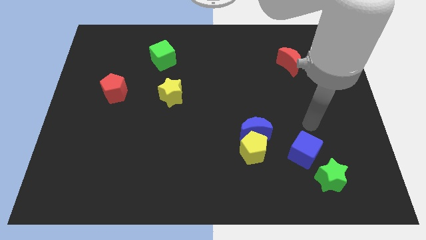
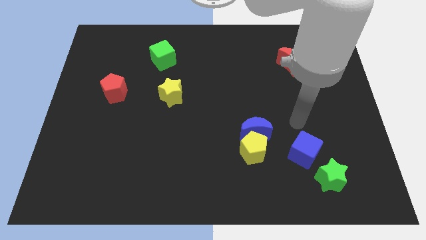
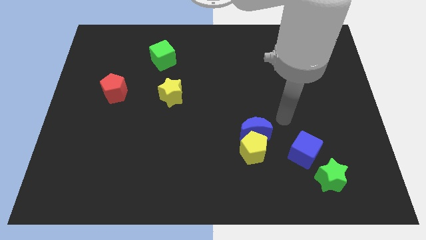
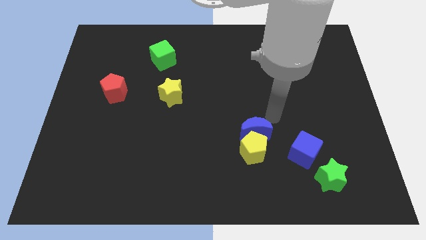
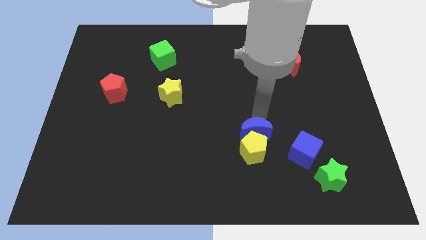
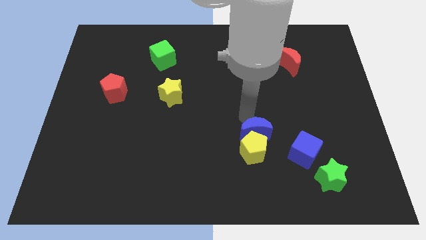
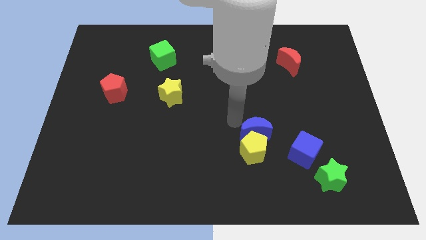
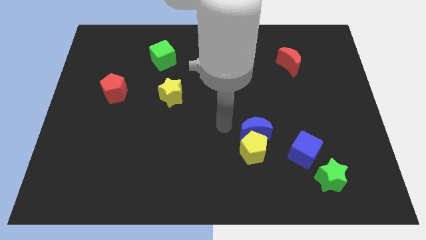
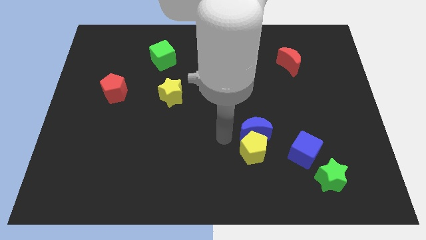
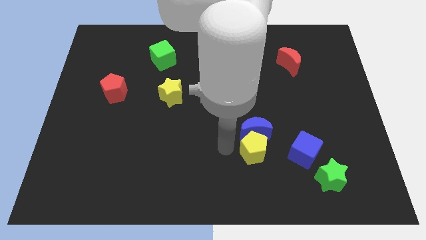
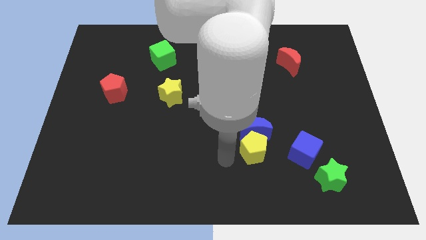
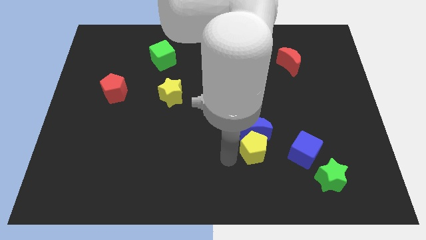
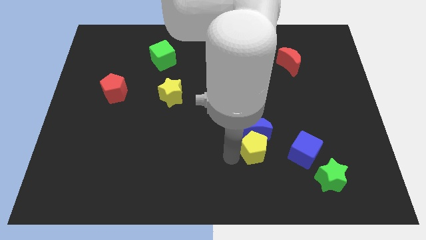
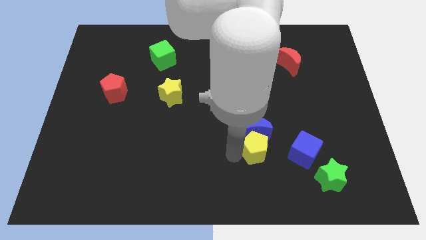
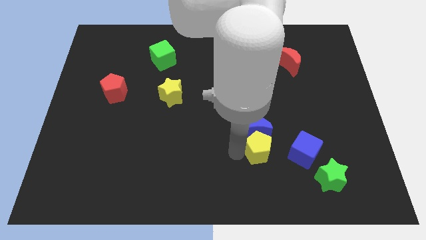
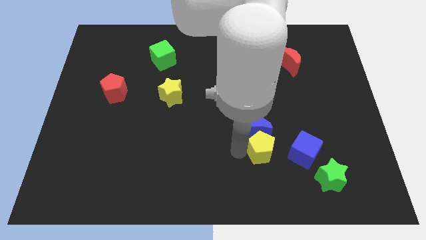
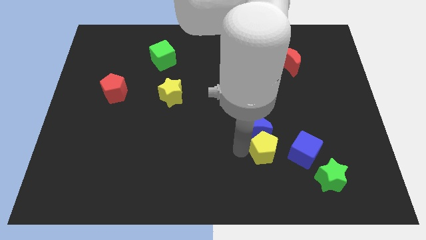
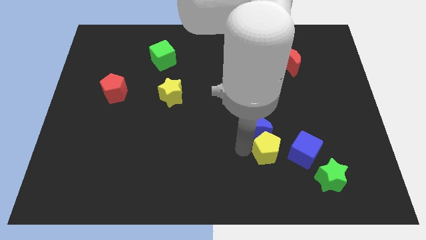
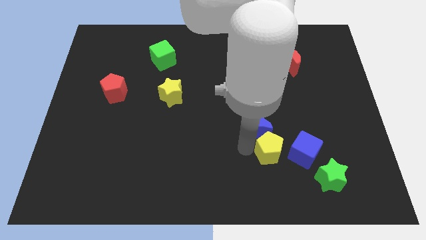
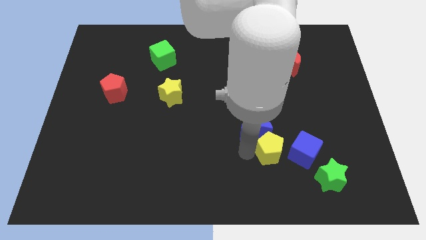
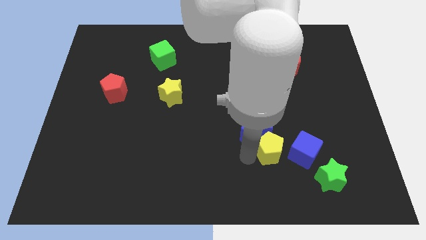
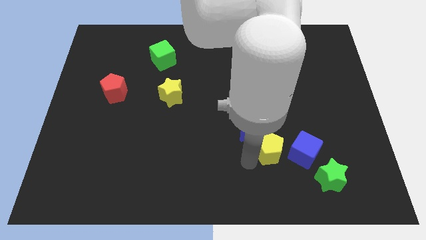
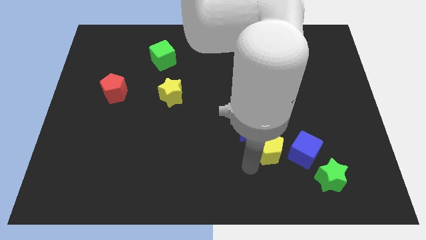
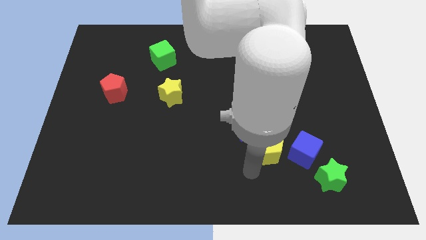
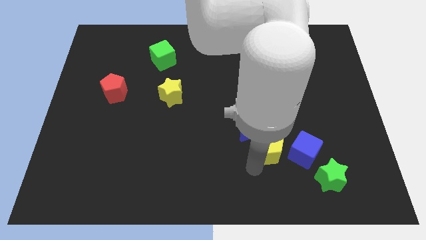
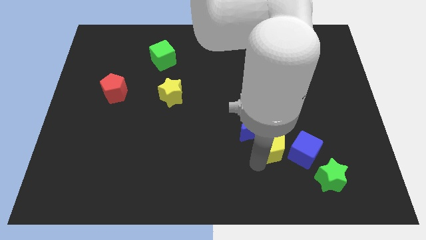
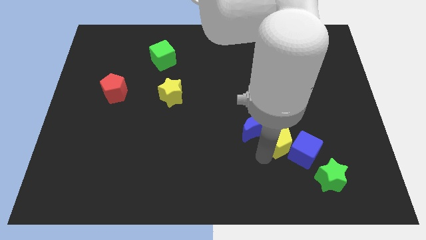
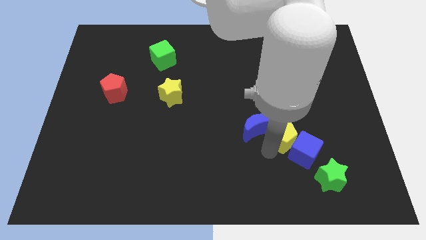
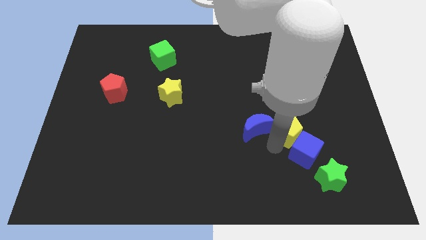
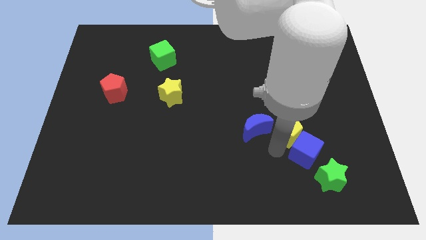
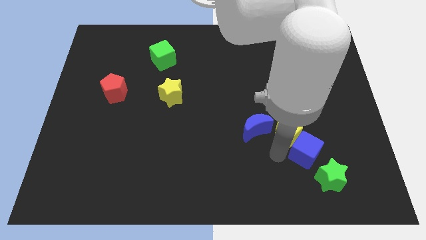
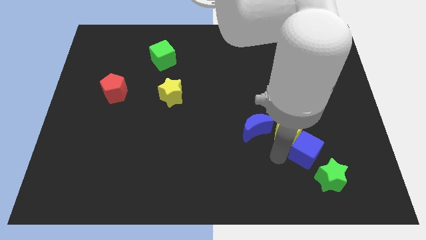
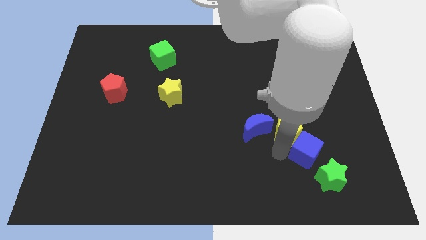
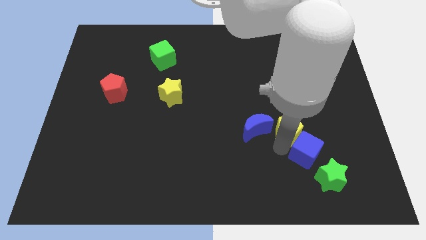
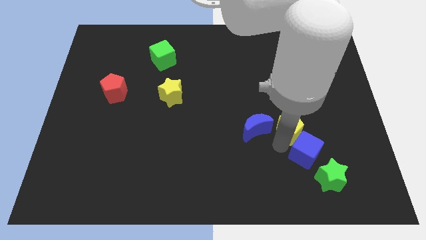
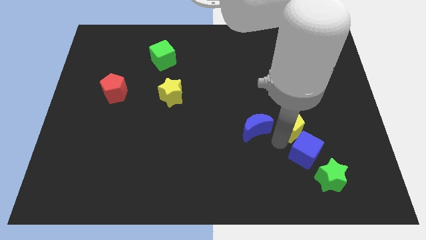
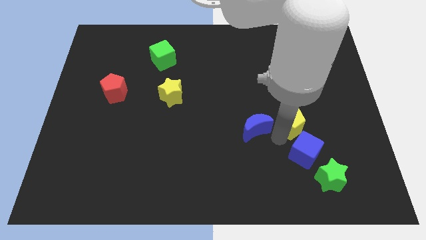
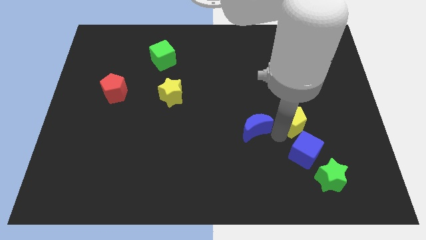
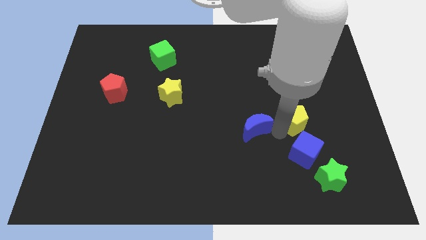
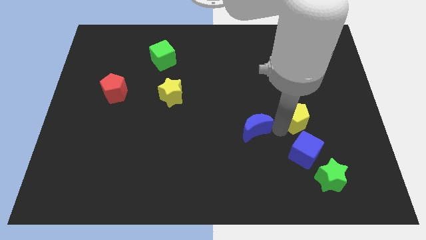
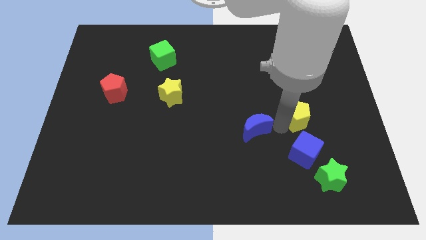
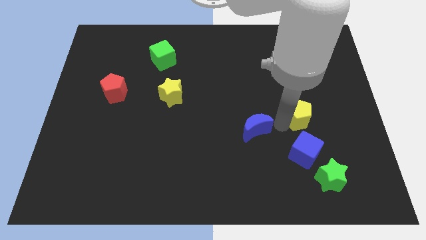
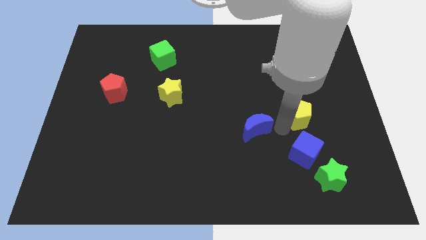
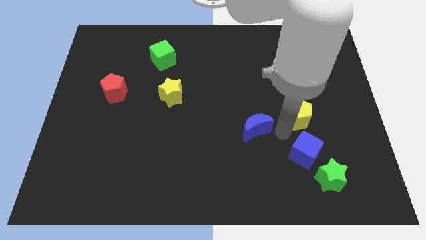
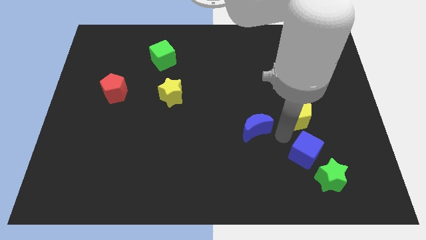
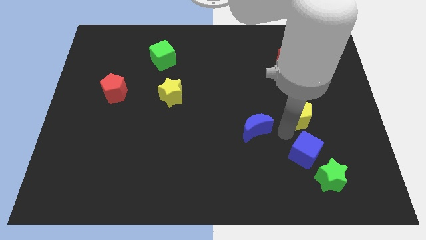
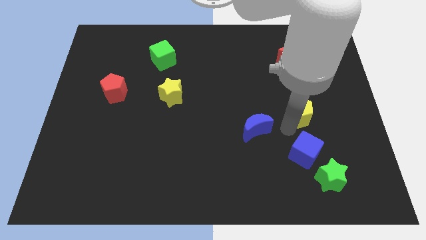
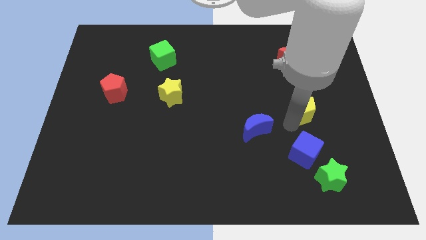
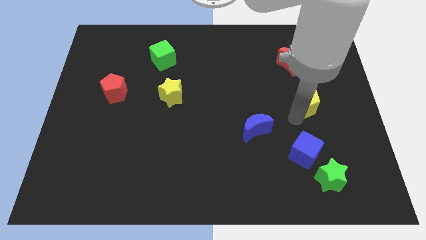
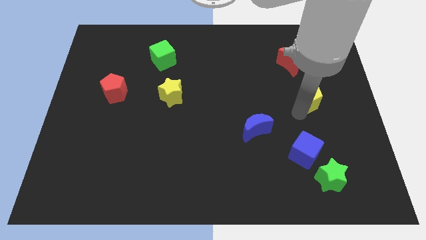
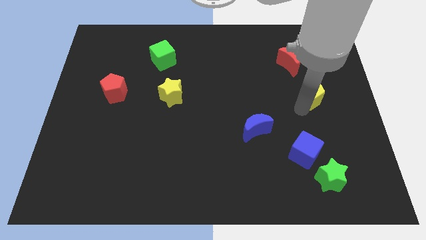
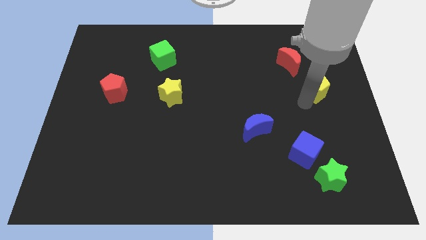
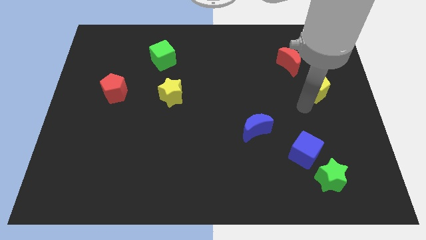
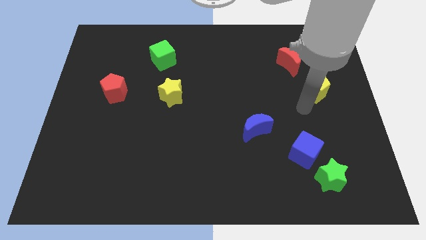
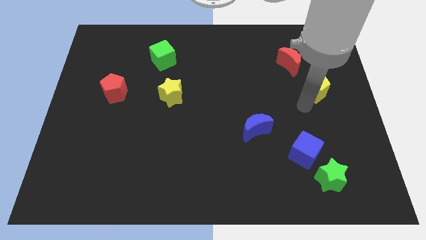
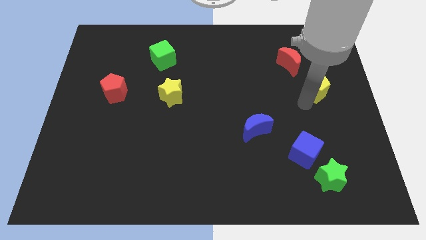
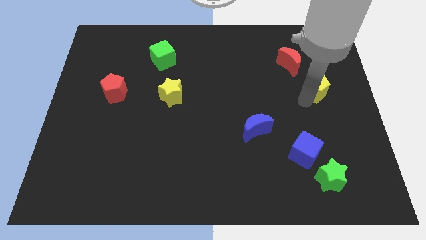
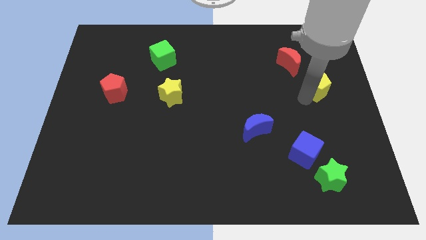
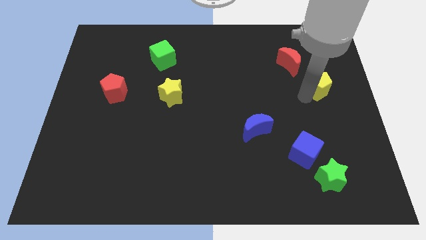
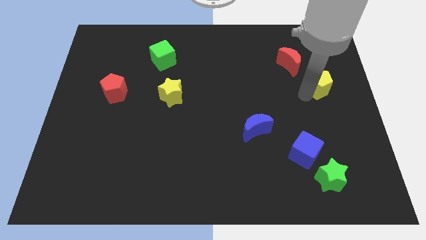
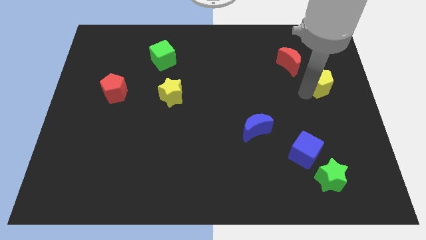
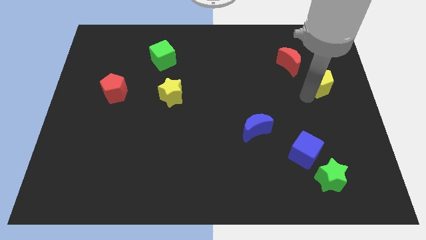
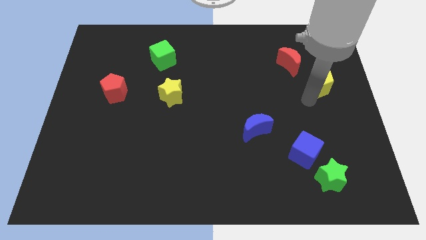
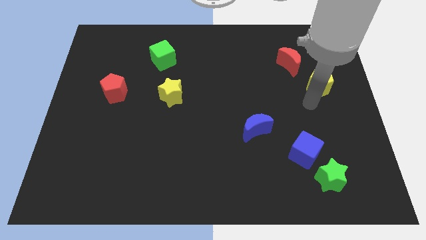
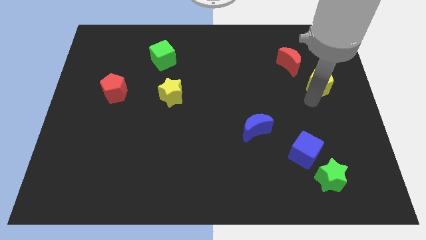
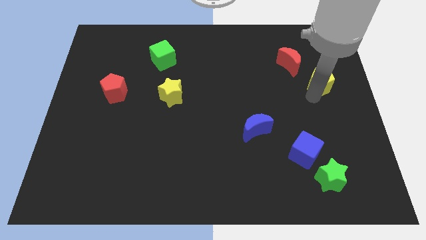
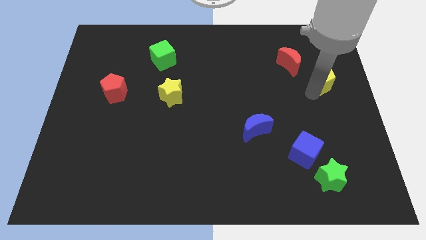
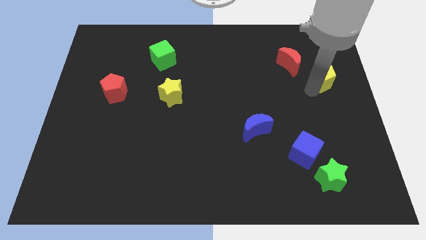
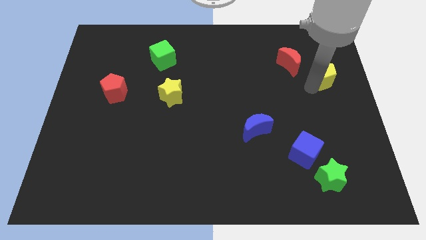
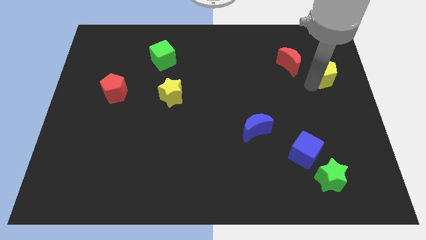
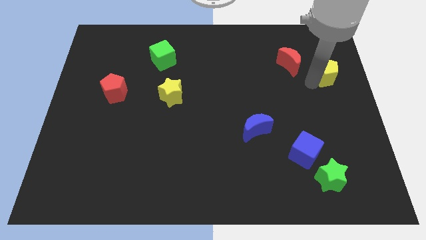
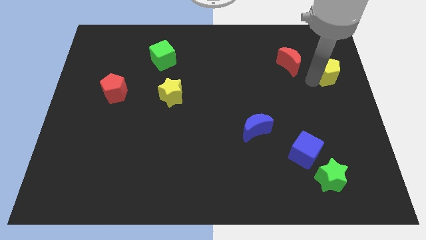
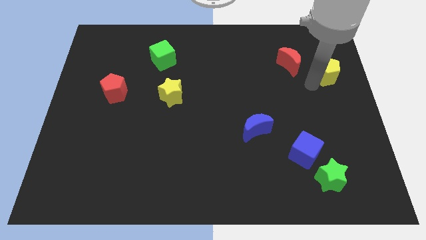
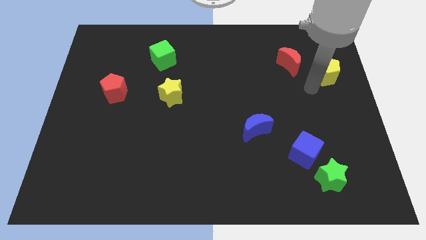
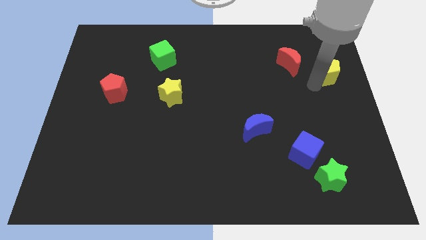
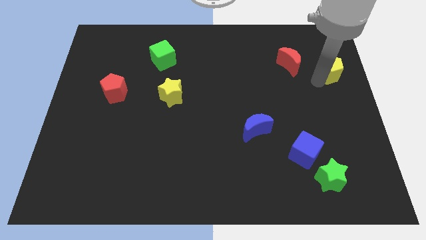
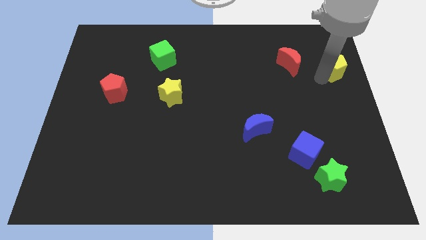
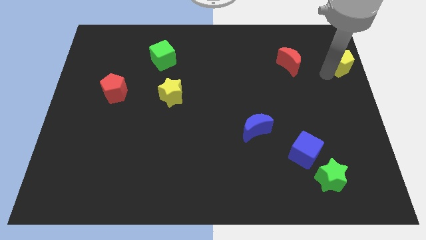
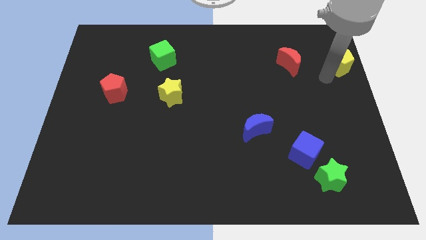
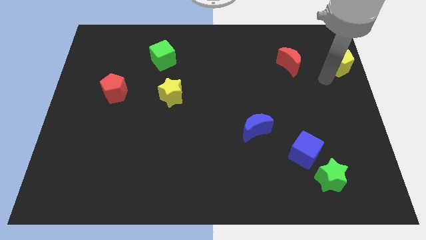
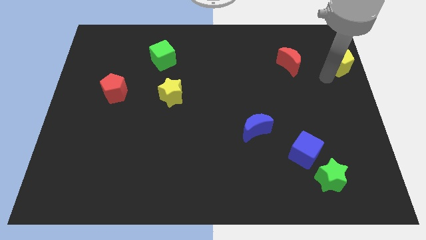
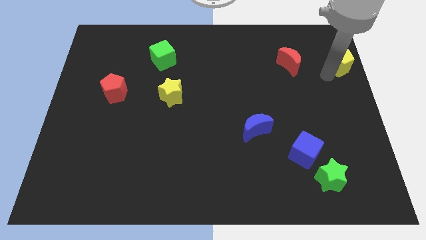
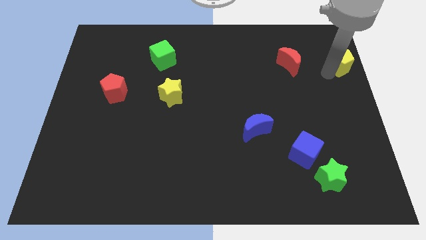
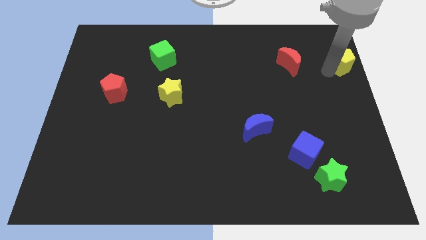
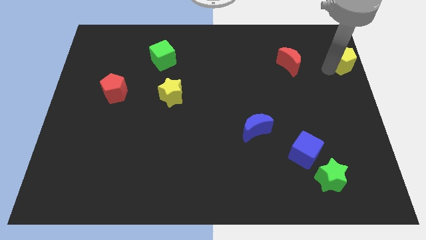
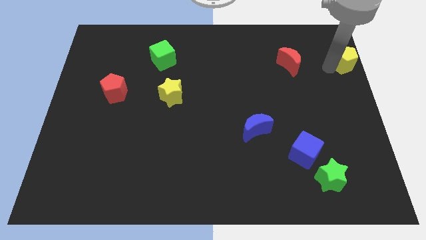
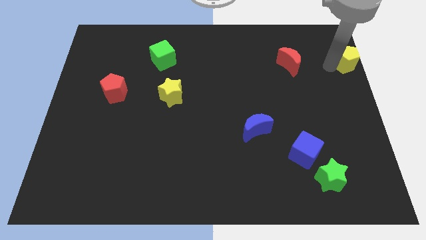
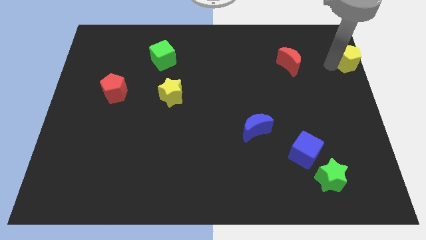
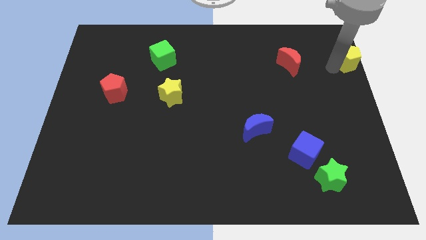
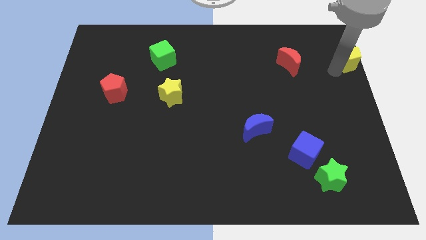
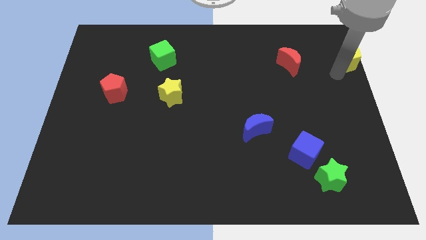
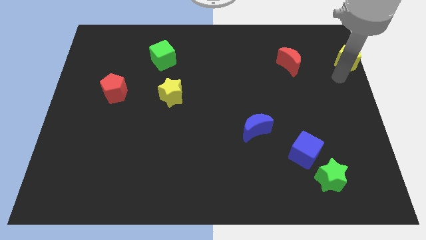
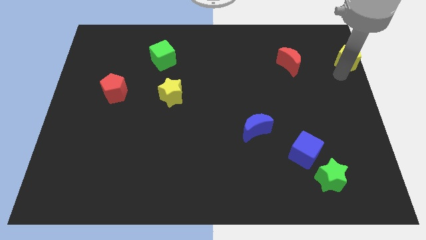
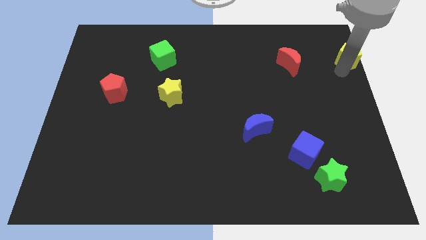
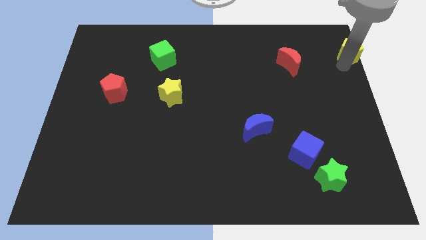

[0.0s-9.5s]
move the yellow pentagon to the upper right corner
